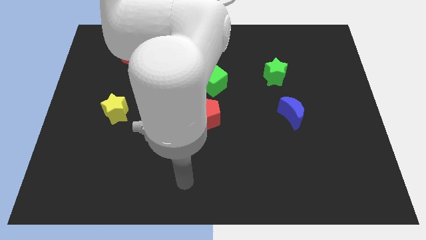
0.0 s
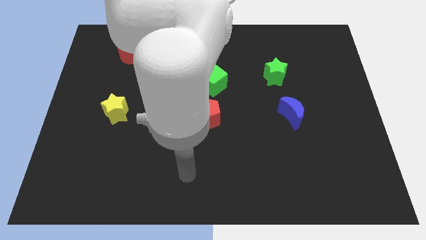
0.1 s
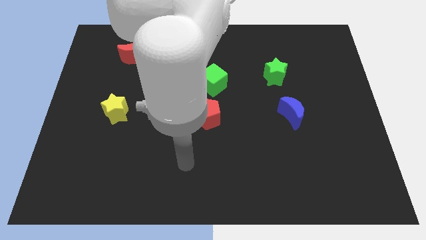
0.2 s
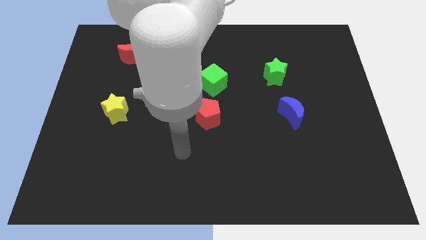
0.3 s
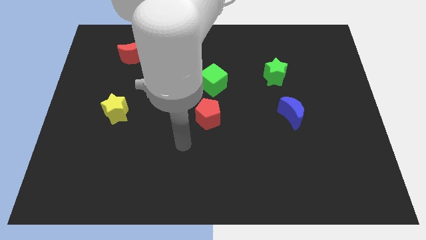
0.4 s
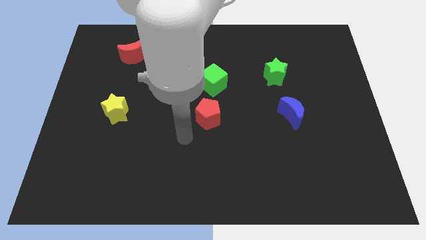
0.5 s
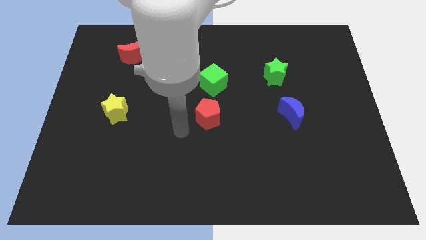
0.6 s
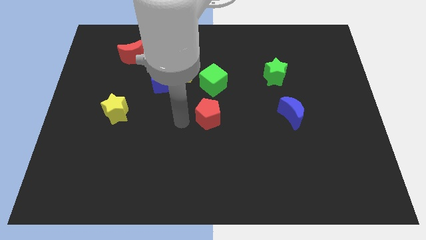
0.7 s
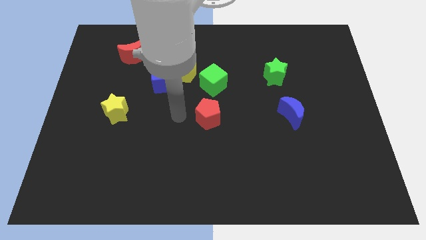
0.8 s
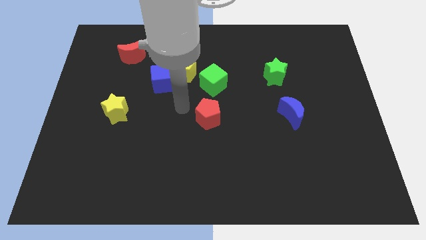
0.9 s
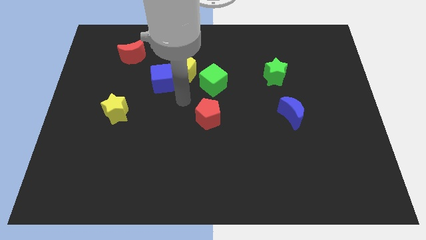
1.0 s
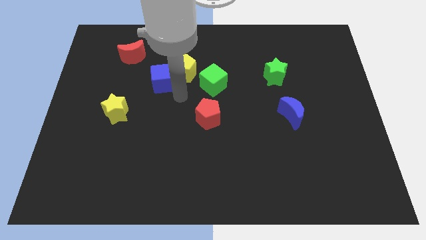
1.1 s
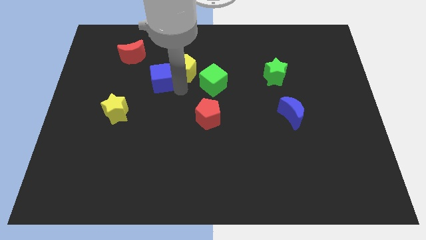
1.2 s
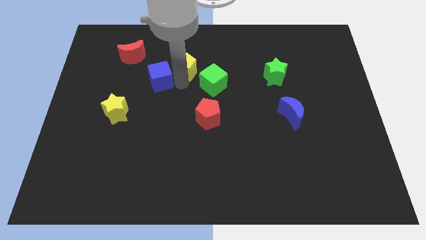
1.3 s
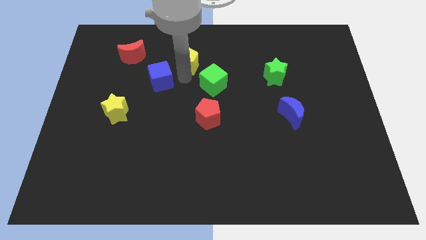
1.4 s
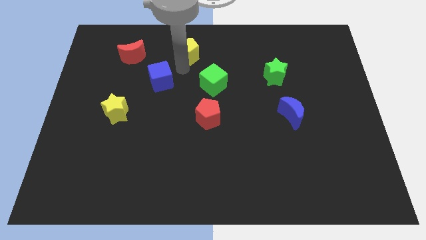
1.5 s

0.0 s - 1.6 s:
pull the blue cube apart from the yellow pentagon

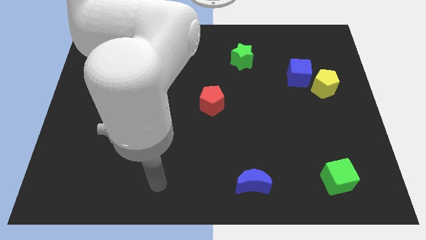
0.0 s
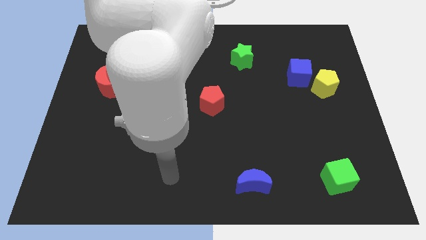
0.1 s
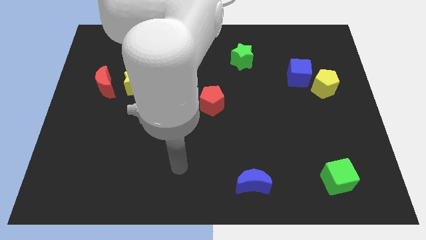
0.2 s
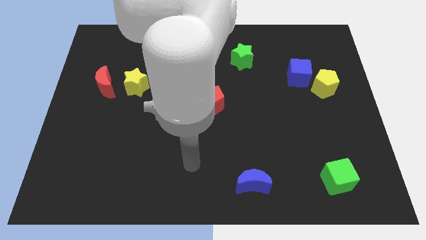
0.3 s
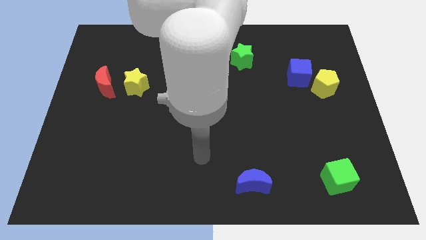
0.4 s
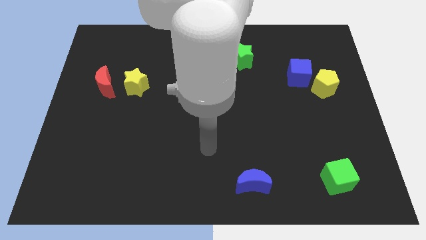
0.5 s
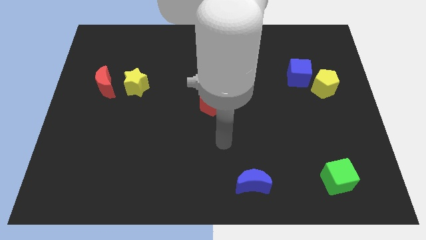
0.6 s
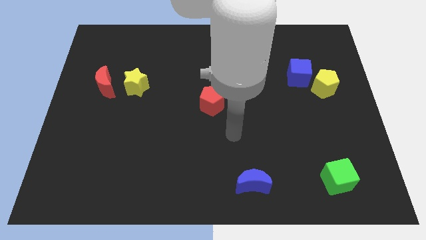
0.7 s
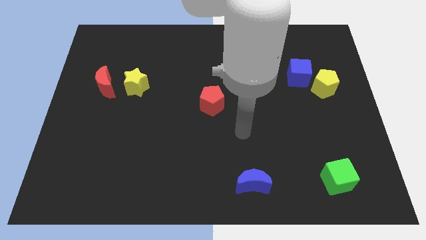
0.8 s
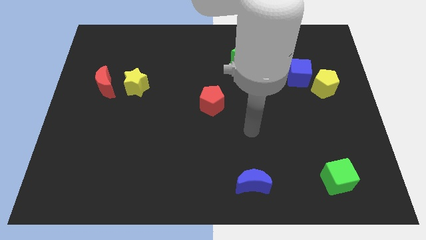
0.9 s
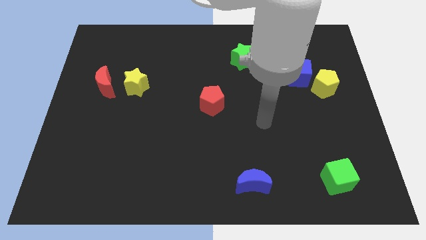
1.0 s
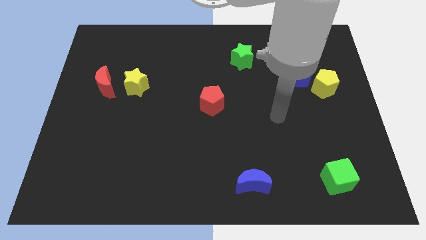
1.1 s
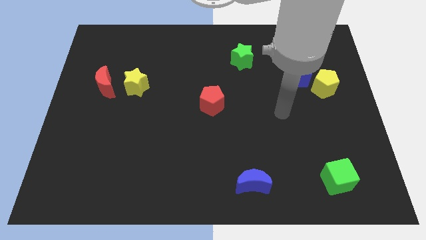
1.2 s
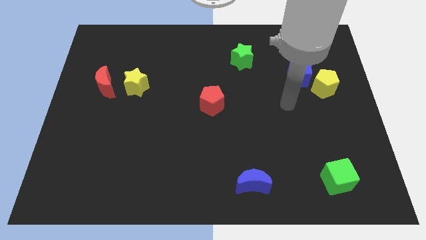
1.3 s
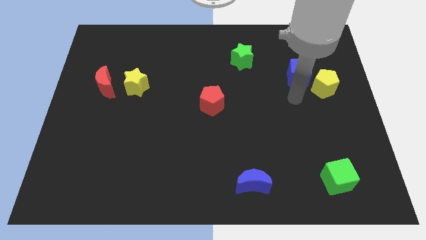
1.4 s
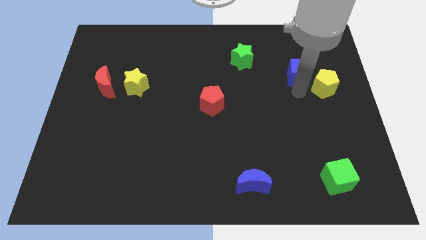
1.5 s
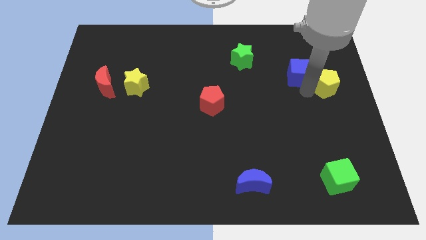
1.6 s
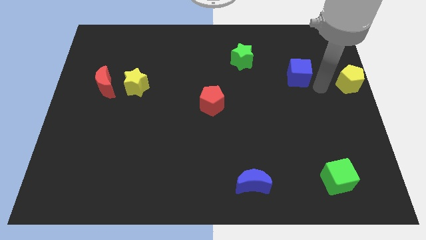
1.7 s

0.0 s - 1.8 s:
move the blue cube away from the yellow pentagon

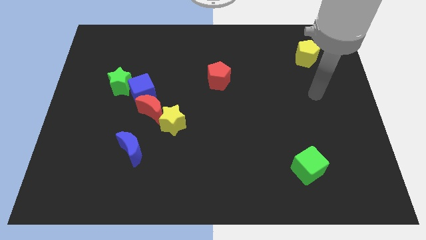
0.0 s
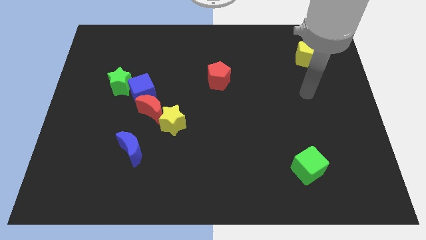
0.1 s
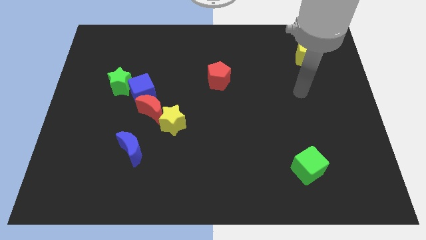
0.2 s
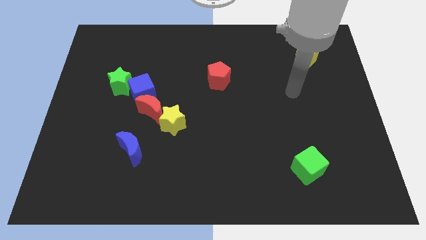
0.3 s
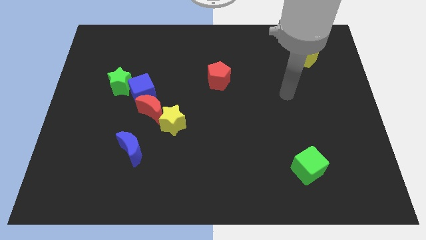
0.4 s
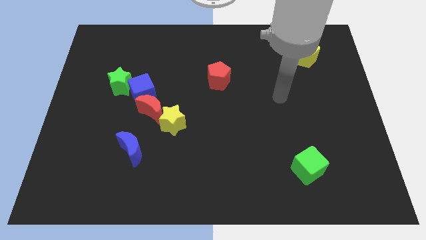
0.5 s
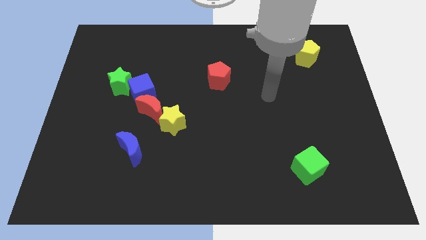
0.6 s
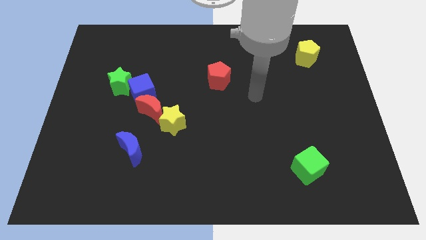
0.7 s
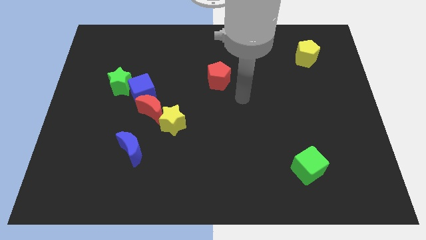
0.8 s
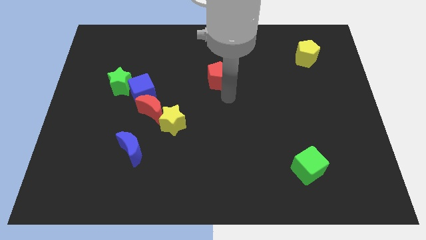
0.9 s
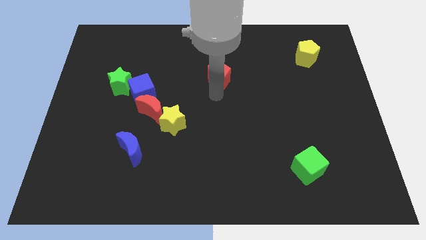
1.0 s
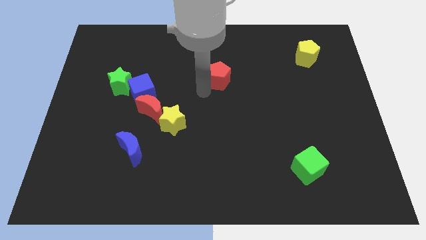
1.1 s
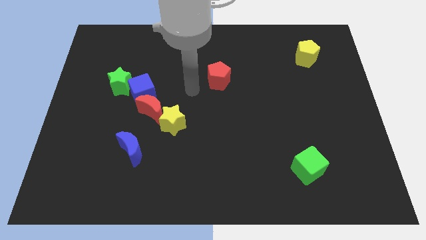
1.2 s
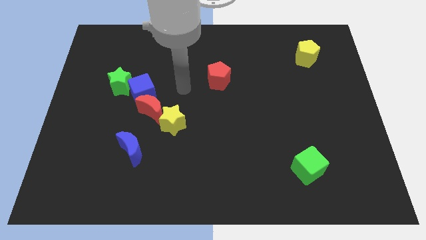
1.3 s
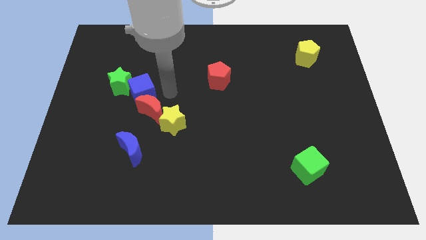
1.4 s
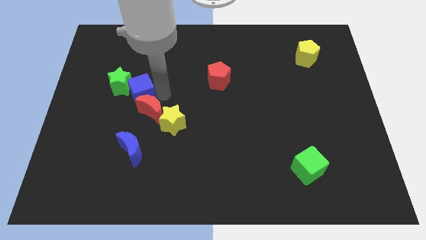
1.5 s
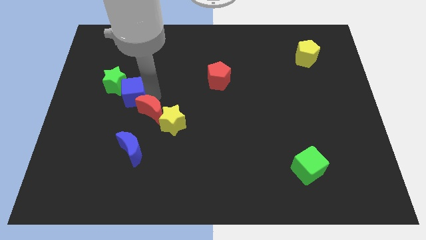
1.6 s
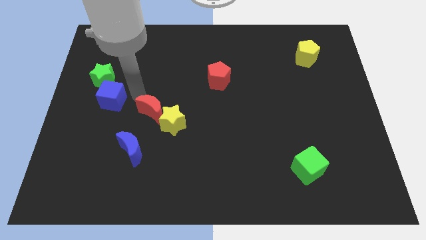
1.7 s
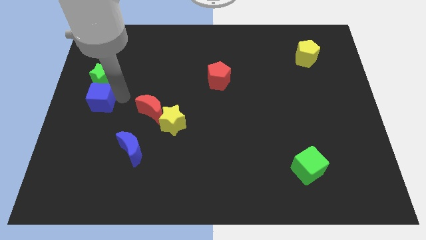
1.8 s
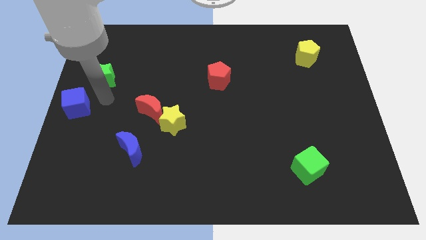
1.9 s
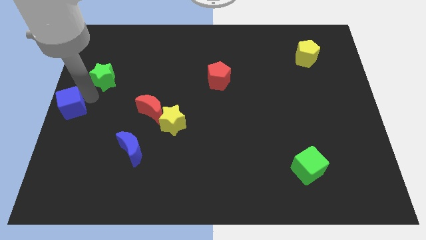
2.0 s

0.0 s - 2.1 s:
move the green star away from the blue cube

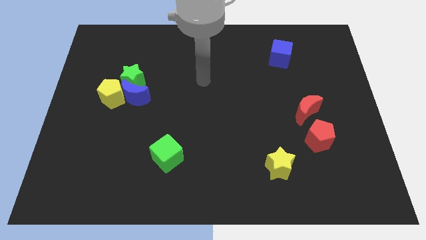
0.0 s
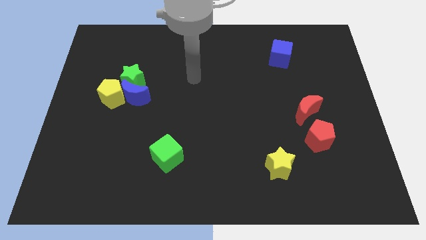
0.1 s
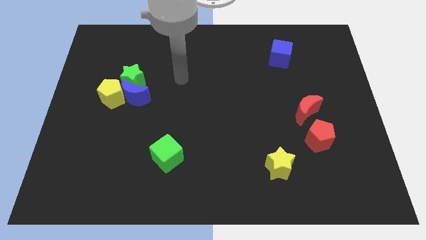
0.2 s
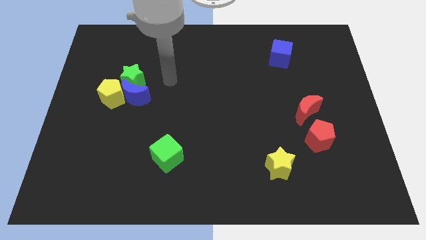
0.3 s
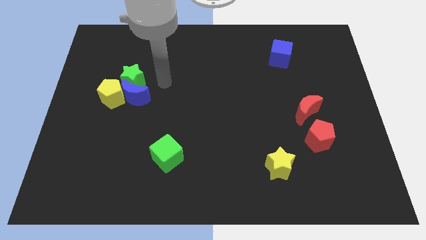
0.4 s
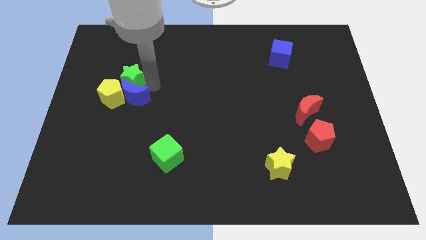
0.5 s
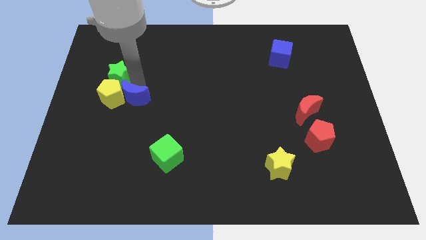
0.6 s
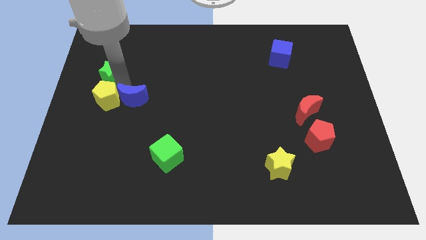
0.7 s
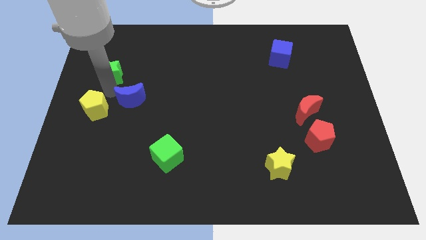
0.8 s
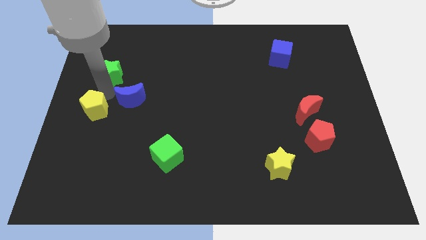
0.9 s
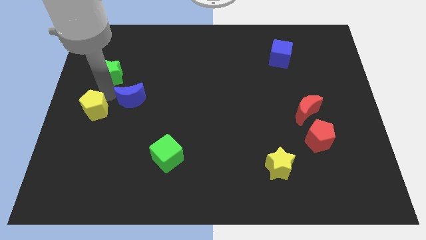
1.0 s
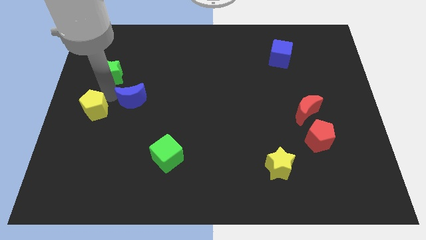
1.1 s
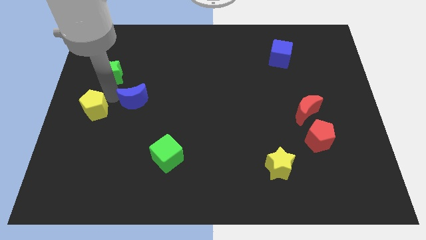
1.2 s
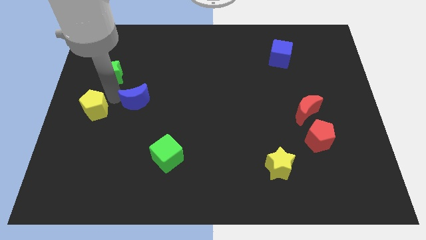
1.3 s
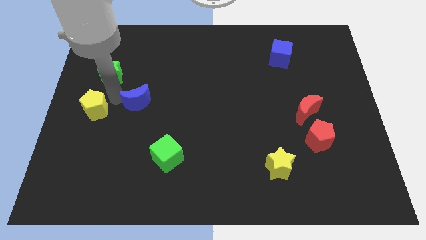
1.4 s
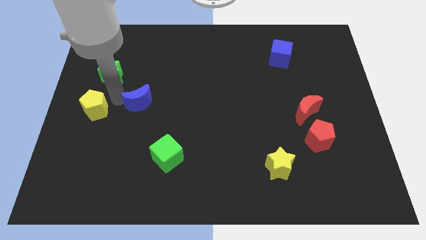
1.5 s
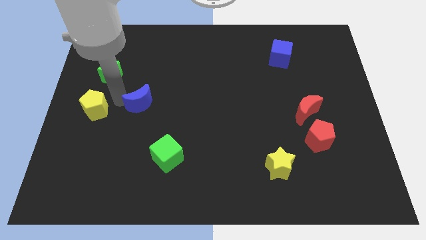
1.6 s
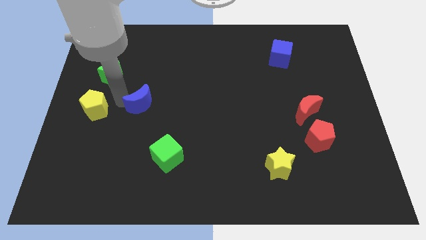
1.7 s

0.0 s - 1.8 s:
move the blue moon away from the green star and yellow pentagon

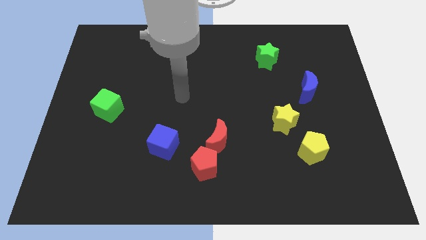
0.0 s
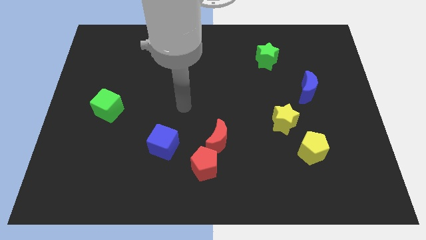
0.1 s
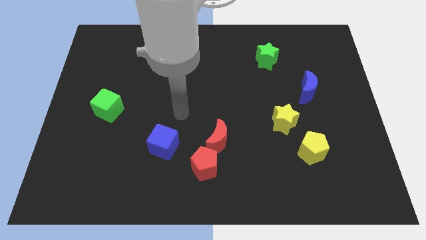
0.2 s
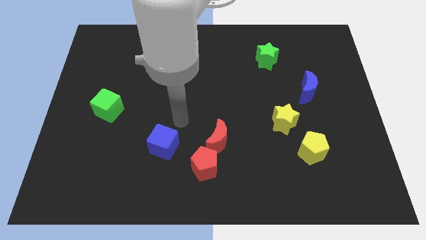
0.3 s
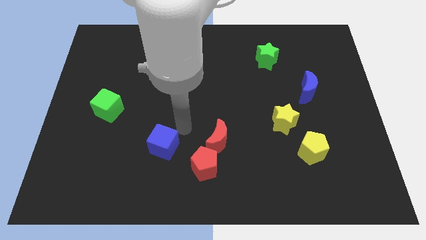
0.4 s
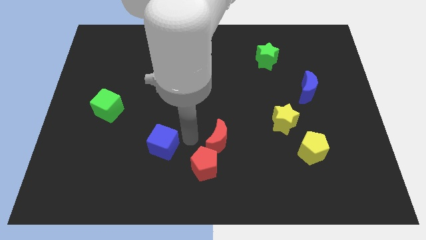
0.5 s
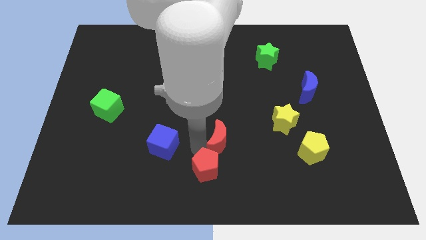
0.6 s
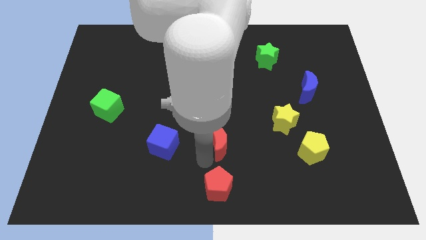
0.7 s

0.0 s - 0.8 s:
separate the red moon from the red pentagon

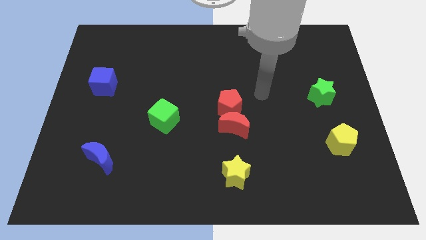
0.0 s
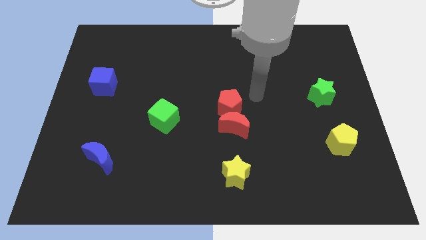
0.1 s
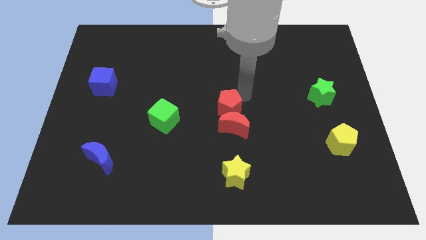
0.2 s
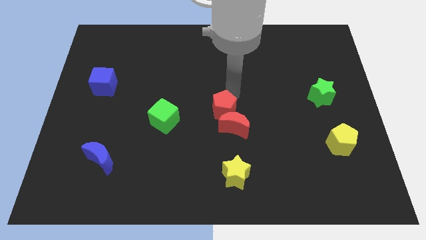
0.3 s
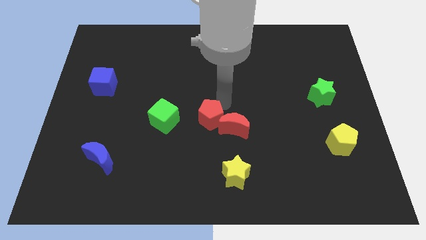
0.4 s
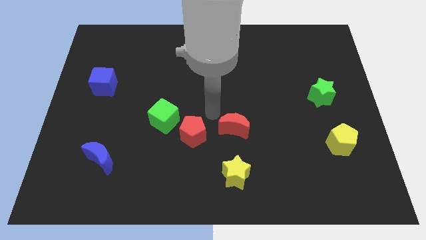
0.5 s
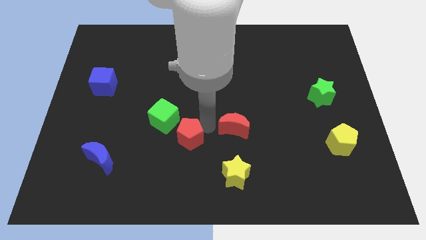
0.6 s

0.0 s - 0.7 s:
move the red moon away from the red pentagon

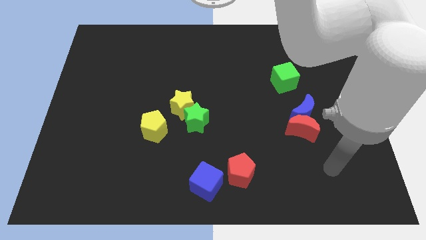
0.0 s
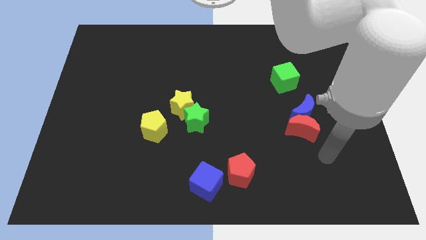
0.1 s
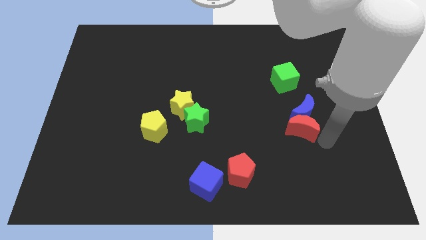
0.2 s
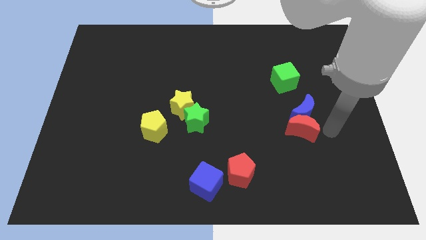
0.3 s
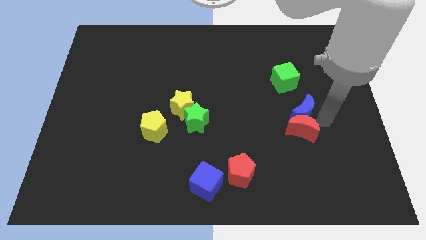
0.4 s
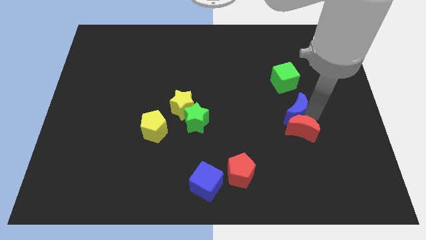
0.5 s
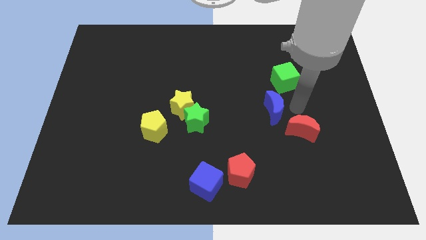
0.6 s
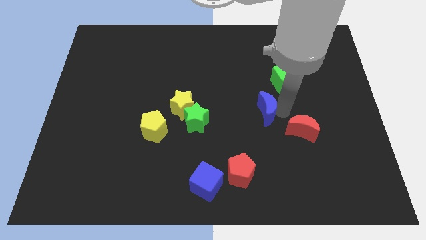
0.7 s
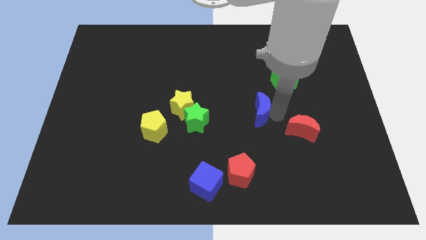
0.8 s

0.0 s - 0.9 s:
separate the red moon from the blue moon
